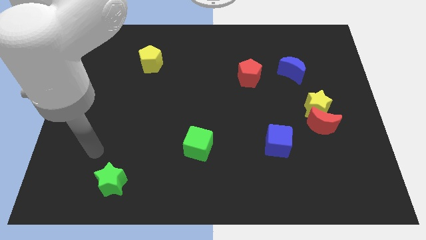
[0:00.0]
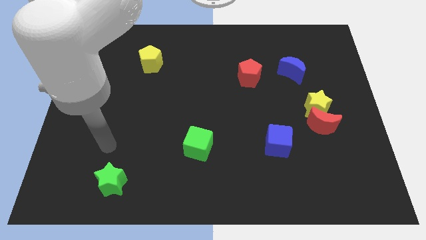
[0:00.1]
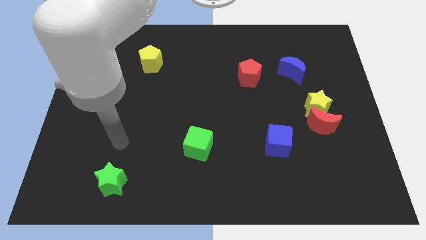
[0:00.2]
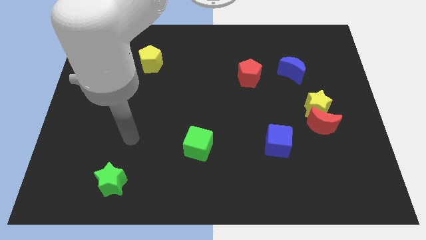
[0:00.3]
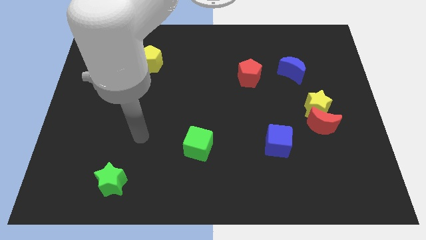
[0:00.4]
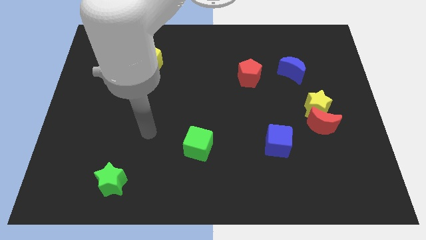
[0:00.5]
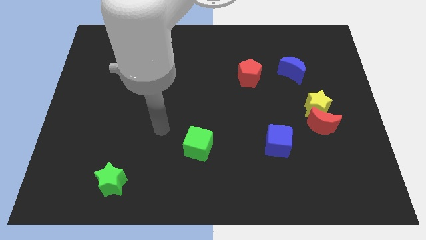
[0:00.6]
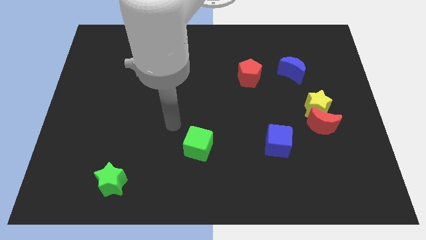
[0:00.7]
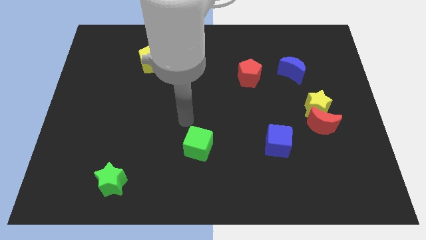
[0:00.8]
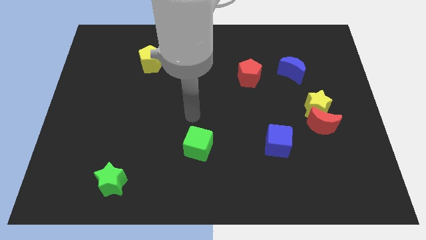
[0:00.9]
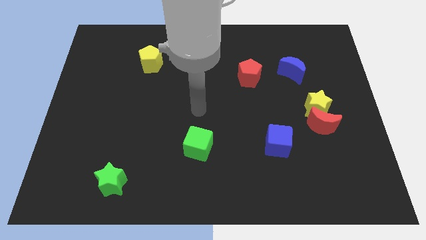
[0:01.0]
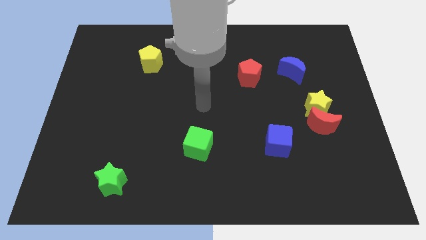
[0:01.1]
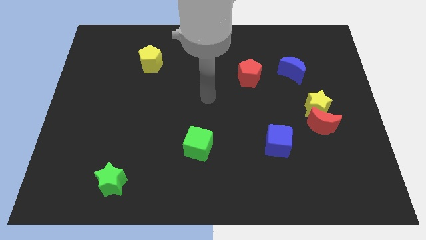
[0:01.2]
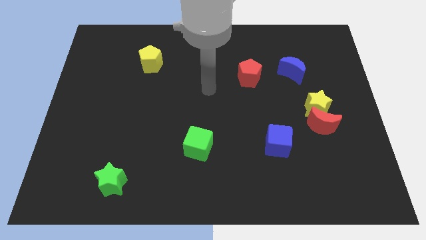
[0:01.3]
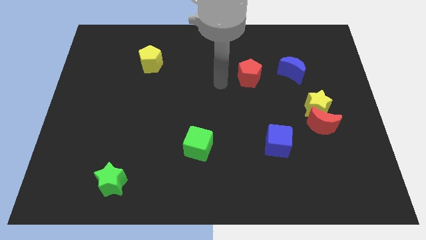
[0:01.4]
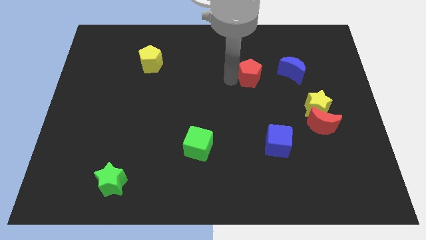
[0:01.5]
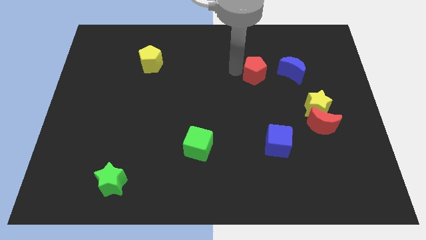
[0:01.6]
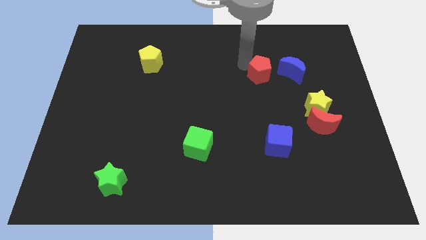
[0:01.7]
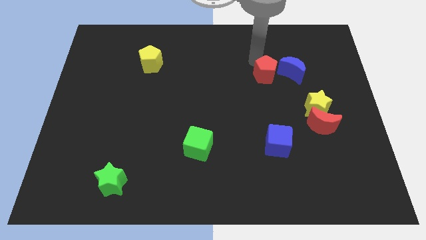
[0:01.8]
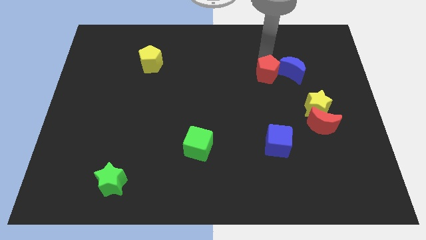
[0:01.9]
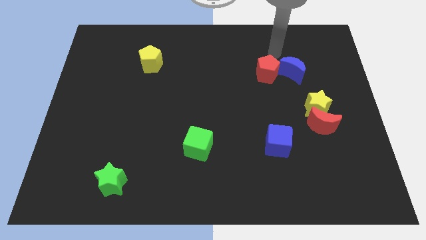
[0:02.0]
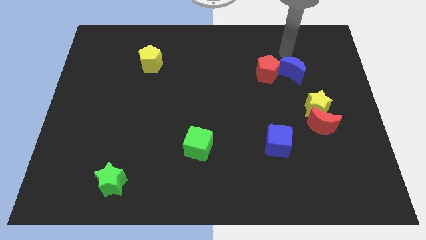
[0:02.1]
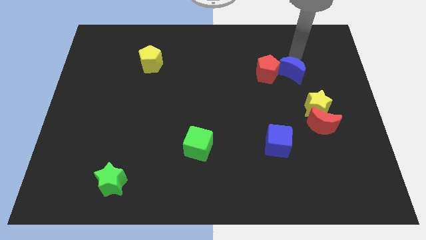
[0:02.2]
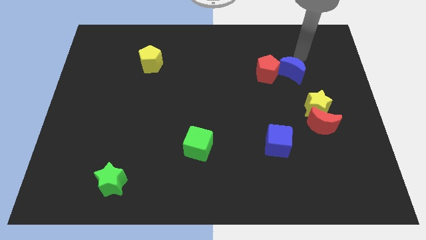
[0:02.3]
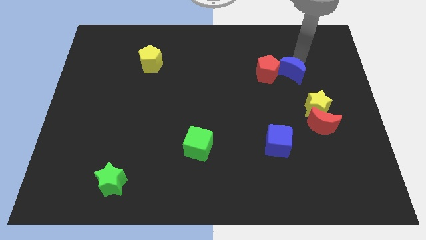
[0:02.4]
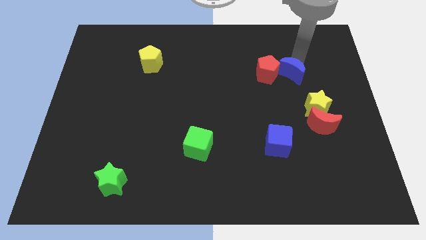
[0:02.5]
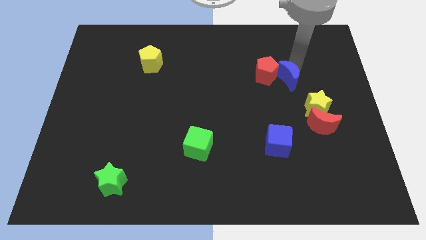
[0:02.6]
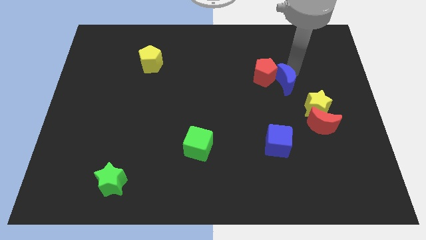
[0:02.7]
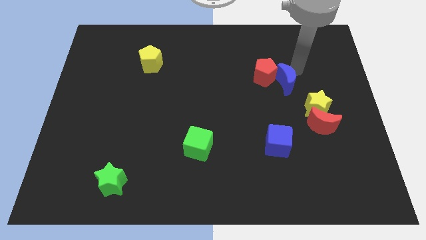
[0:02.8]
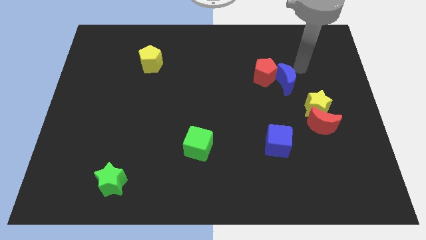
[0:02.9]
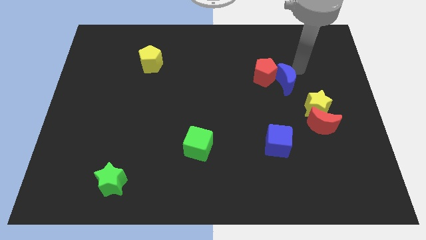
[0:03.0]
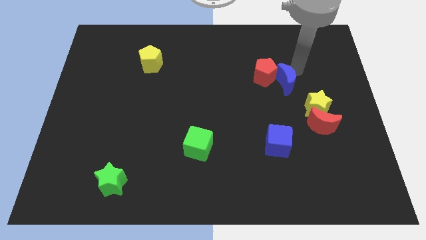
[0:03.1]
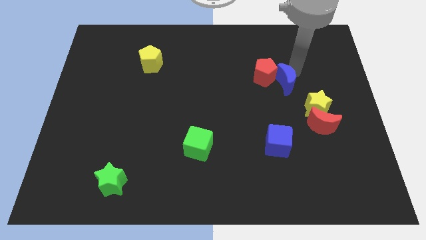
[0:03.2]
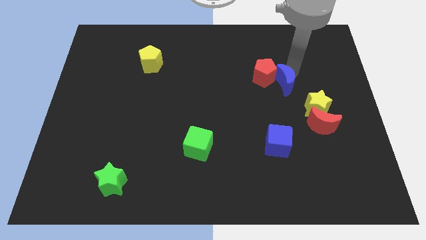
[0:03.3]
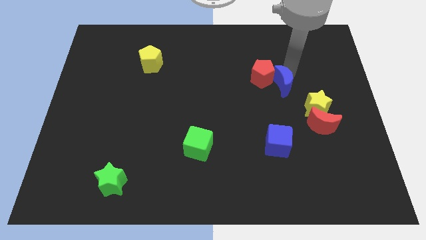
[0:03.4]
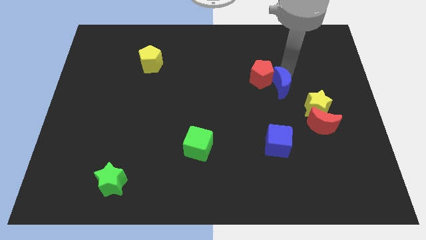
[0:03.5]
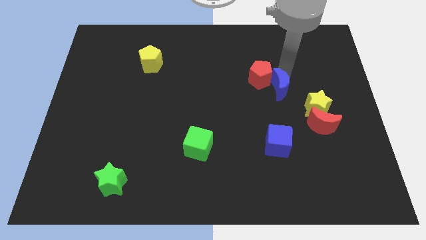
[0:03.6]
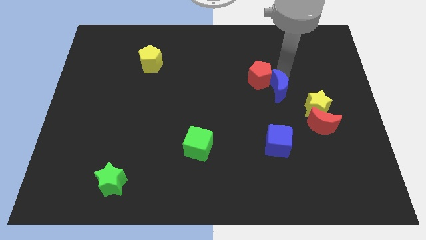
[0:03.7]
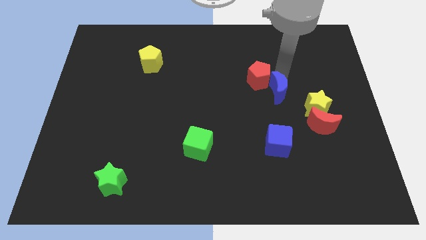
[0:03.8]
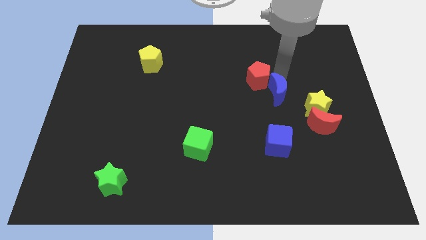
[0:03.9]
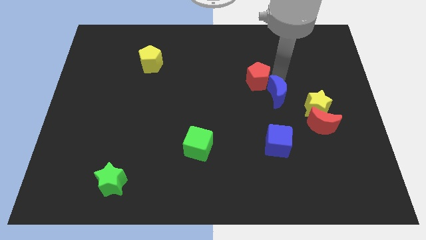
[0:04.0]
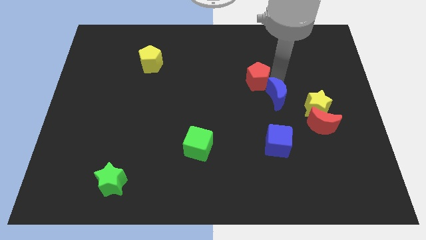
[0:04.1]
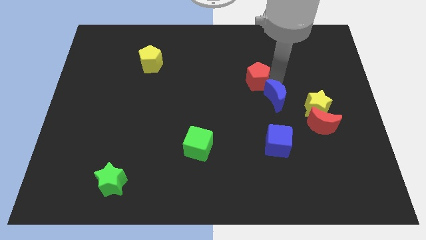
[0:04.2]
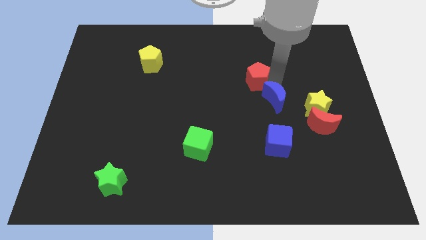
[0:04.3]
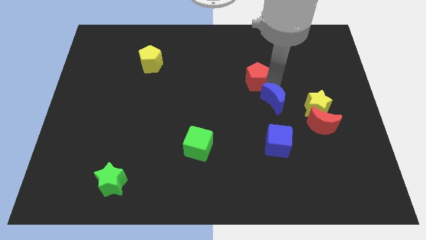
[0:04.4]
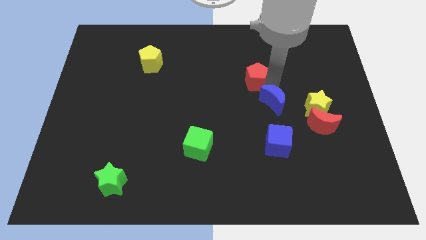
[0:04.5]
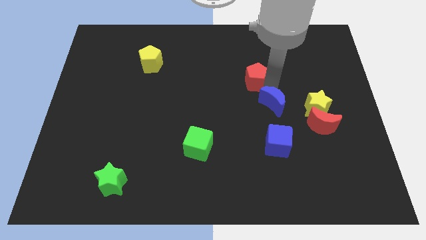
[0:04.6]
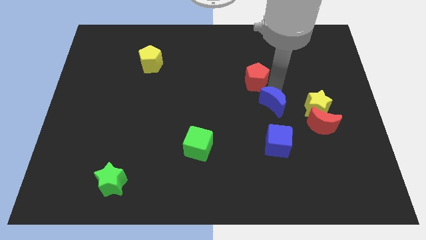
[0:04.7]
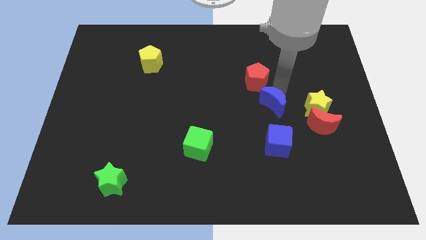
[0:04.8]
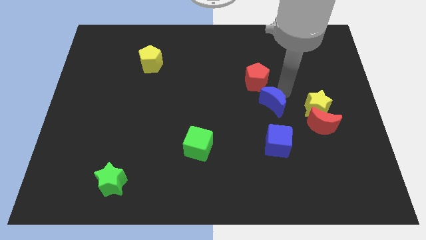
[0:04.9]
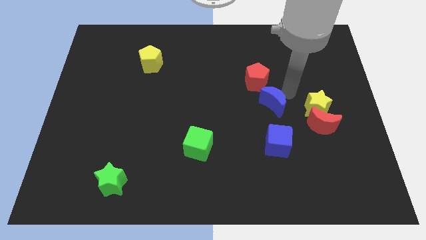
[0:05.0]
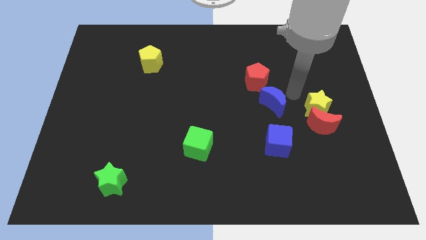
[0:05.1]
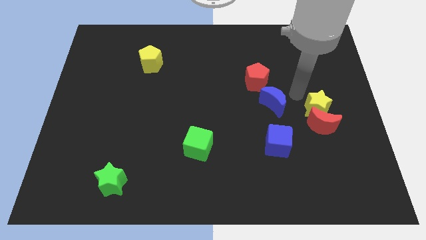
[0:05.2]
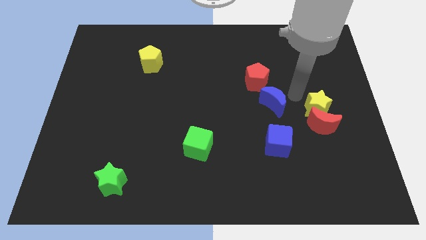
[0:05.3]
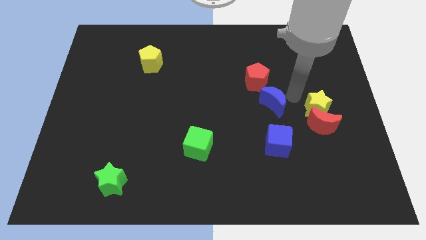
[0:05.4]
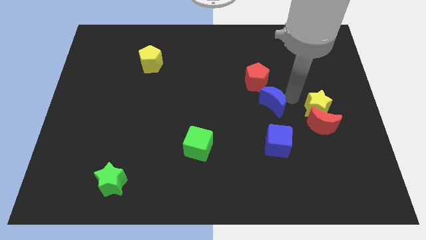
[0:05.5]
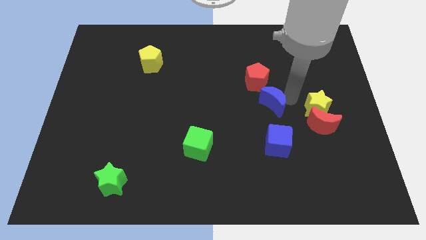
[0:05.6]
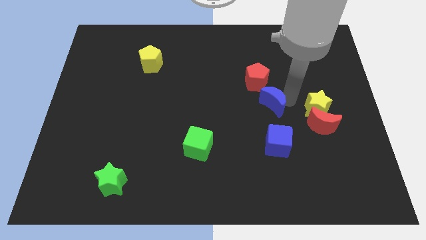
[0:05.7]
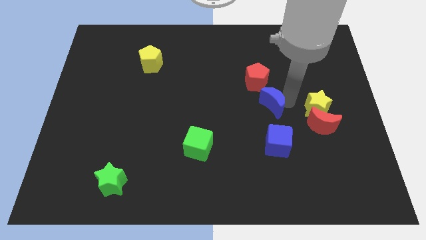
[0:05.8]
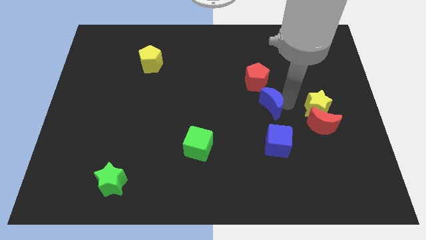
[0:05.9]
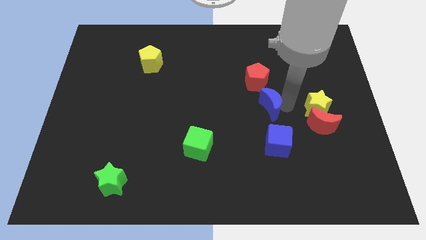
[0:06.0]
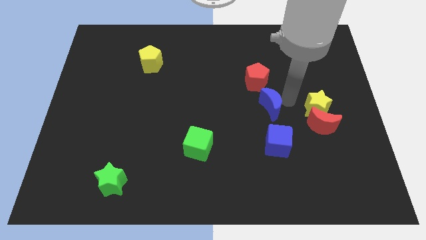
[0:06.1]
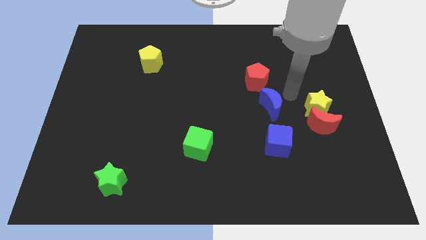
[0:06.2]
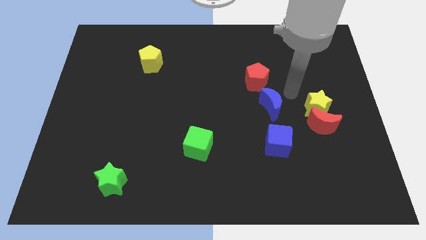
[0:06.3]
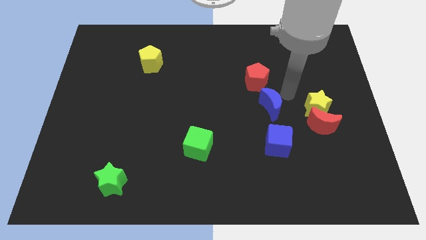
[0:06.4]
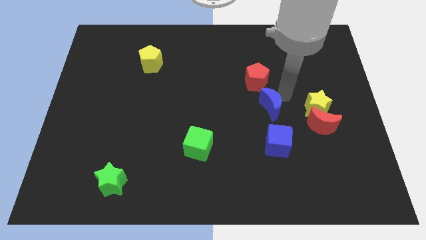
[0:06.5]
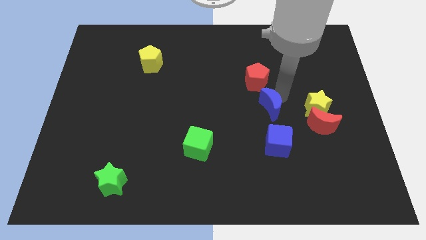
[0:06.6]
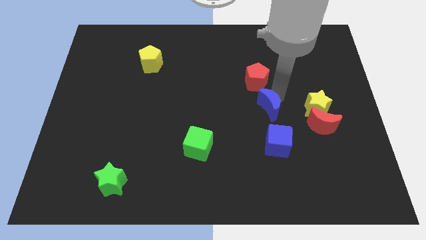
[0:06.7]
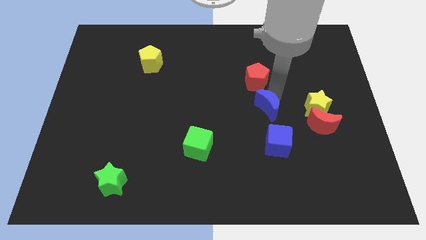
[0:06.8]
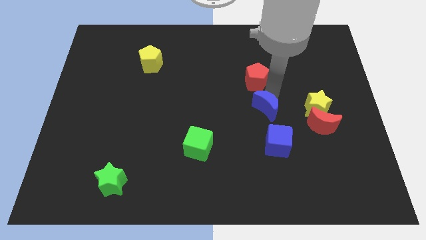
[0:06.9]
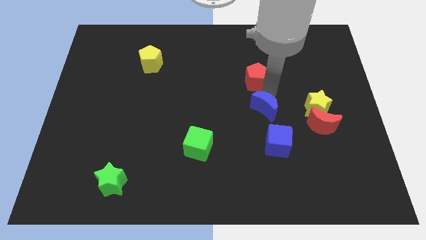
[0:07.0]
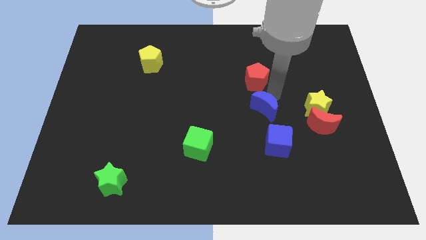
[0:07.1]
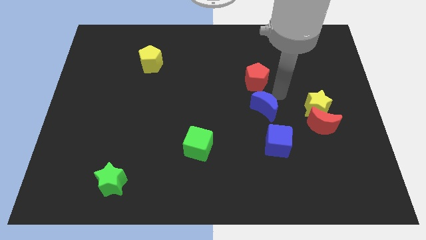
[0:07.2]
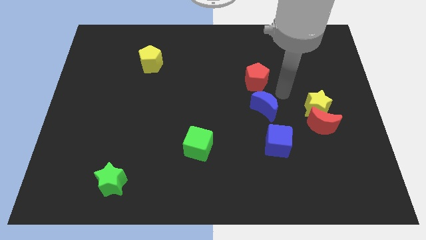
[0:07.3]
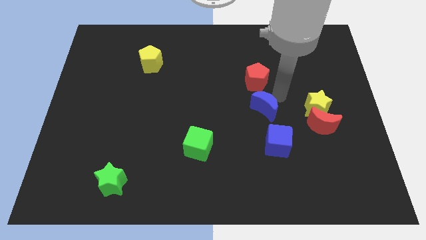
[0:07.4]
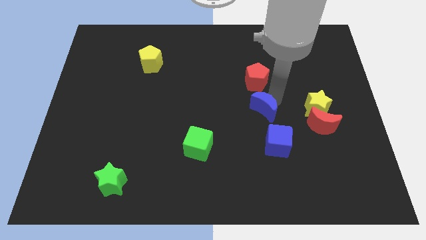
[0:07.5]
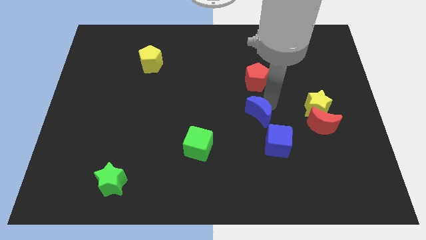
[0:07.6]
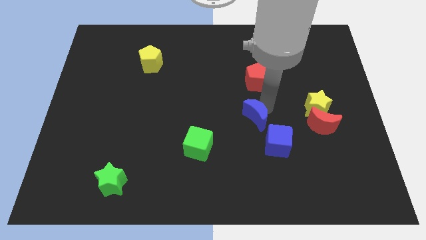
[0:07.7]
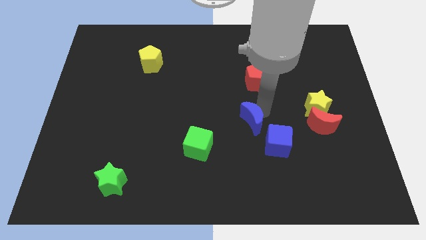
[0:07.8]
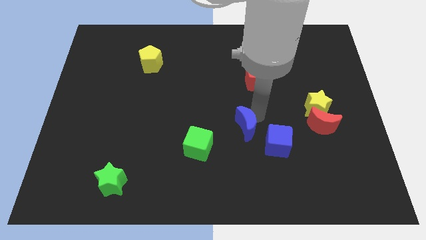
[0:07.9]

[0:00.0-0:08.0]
slide the blue moon just left of the blue cube
